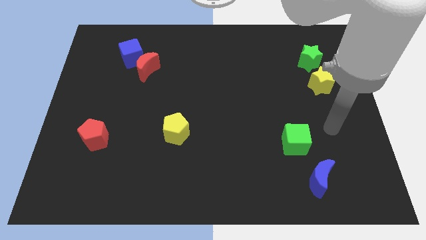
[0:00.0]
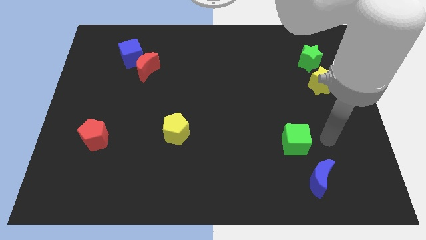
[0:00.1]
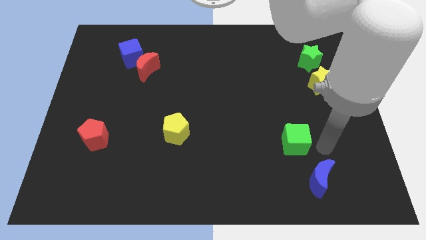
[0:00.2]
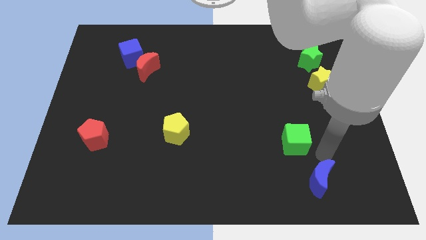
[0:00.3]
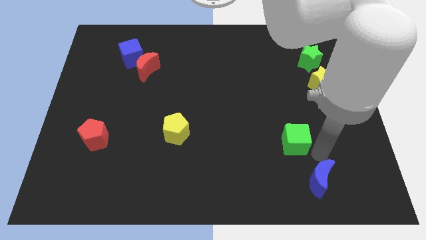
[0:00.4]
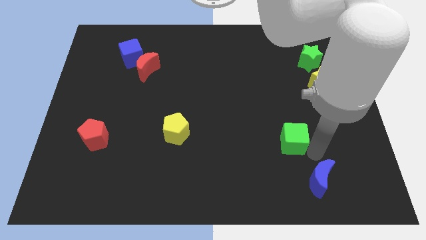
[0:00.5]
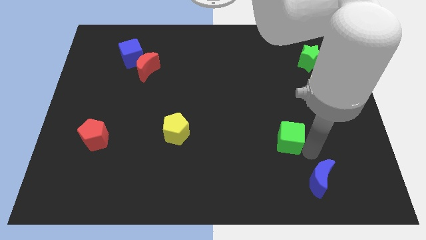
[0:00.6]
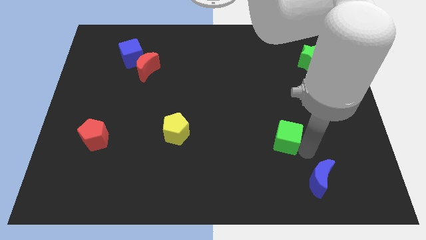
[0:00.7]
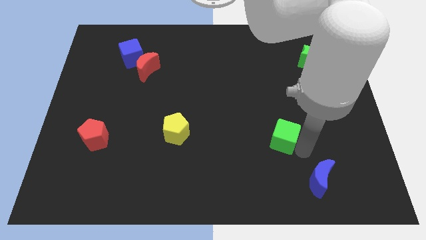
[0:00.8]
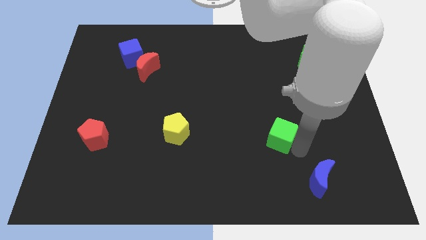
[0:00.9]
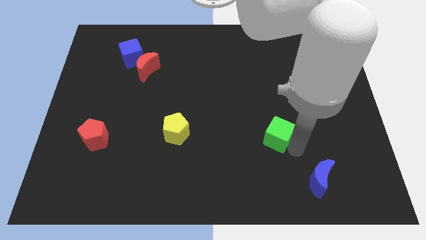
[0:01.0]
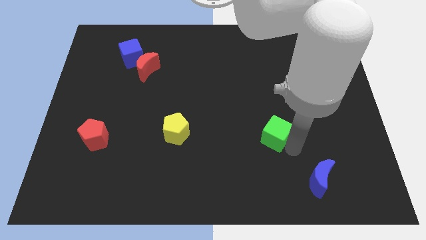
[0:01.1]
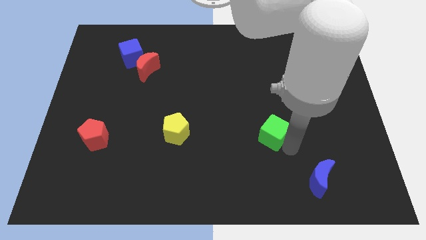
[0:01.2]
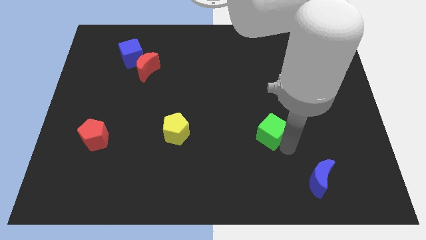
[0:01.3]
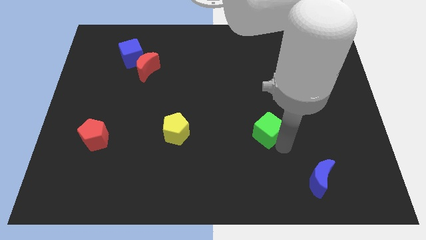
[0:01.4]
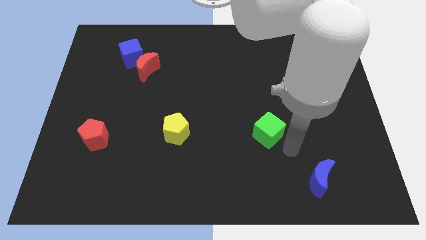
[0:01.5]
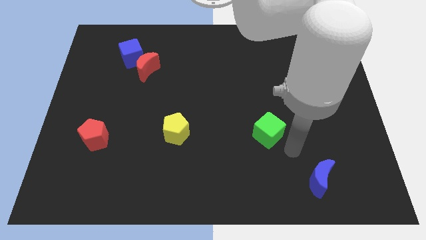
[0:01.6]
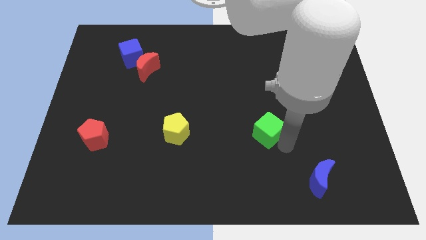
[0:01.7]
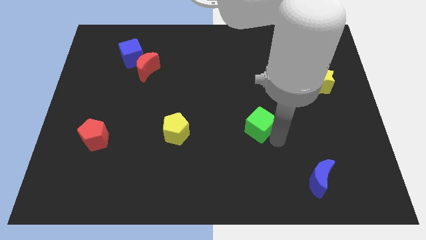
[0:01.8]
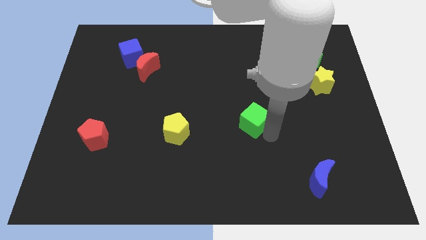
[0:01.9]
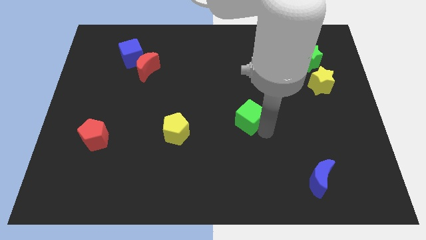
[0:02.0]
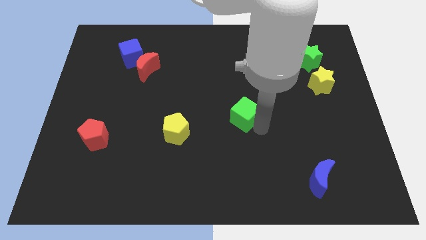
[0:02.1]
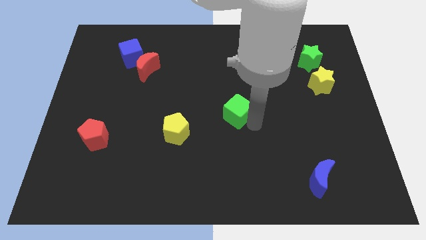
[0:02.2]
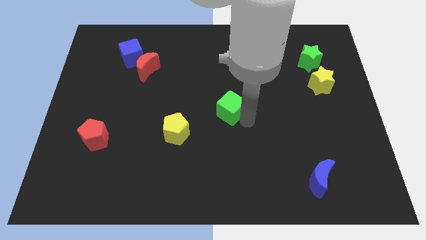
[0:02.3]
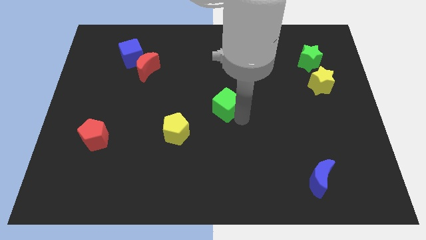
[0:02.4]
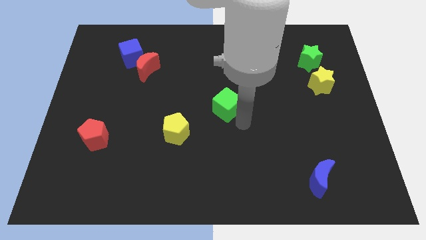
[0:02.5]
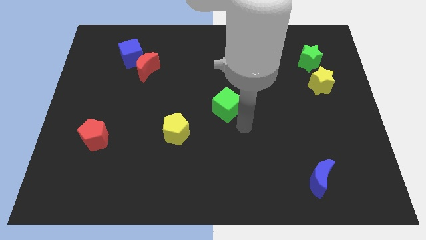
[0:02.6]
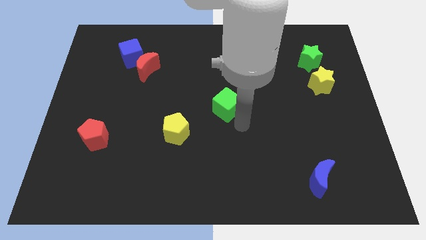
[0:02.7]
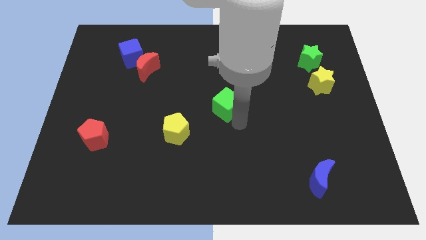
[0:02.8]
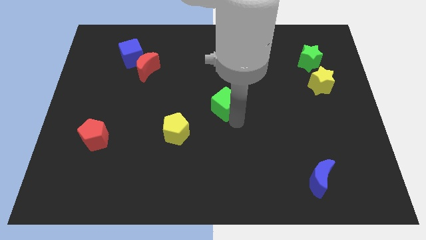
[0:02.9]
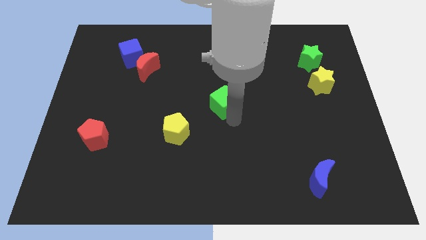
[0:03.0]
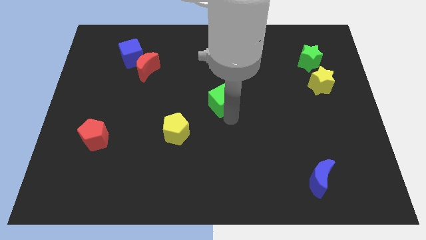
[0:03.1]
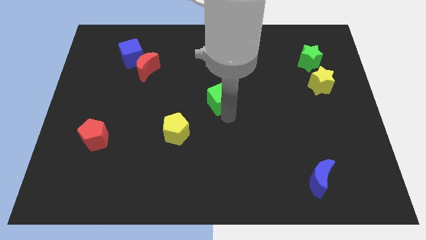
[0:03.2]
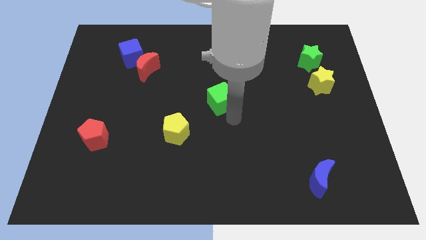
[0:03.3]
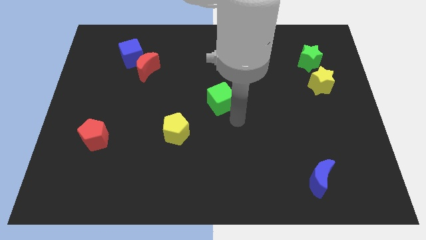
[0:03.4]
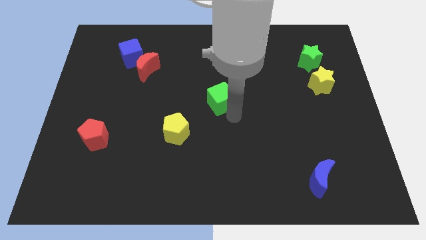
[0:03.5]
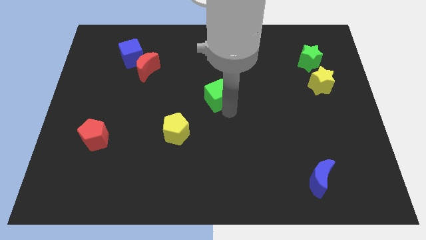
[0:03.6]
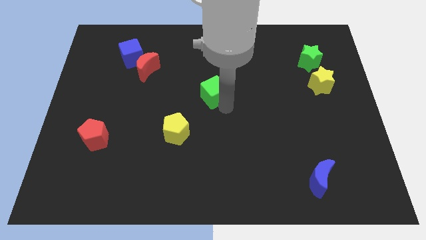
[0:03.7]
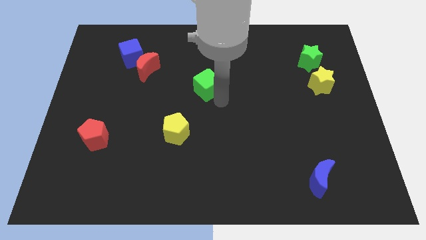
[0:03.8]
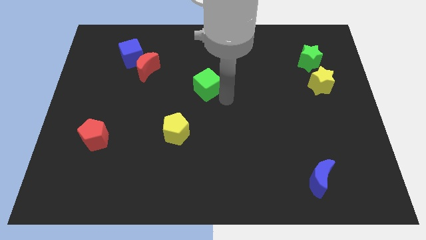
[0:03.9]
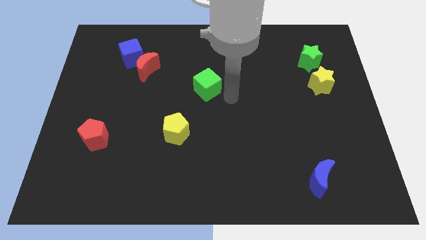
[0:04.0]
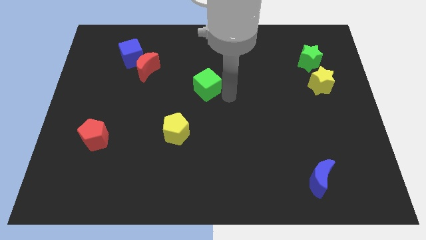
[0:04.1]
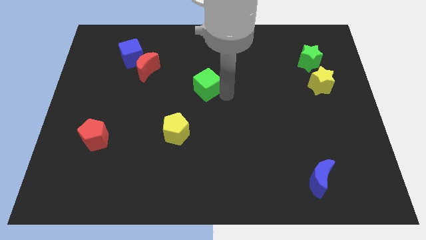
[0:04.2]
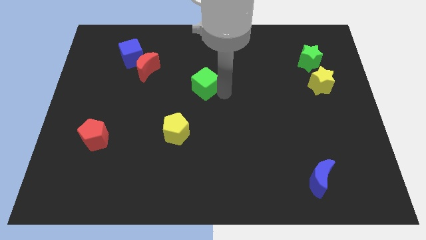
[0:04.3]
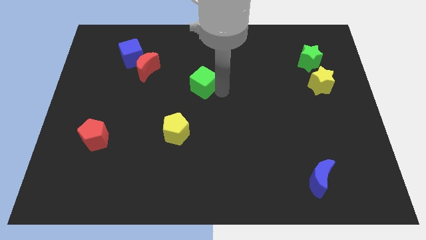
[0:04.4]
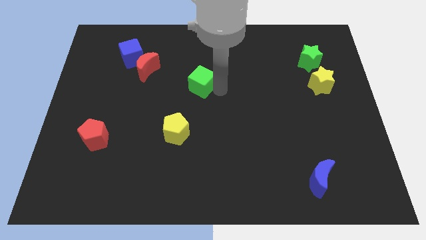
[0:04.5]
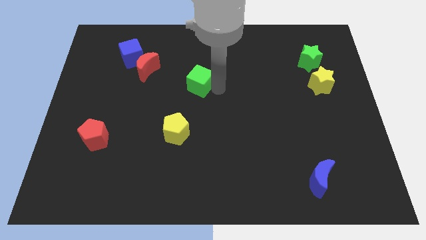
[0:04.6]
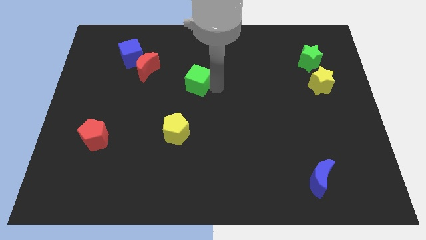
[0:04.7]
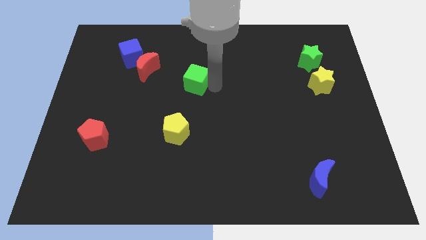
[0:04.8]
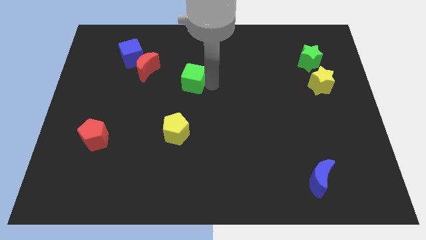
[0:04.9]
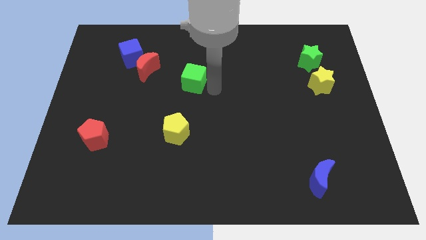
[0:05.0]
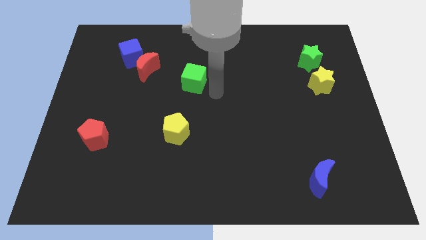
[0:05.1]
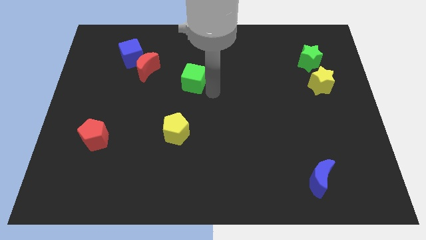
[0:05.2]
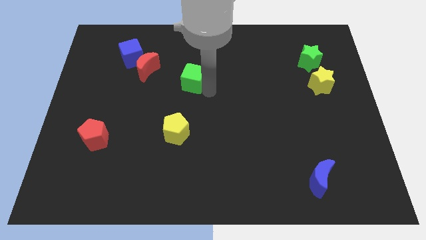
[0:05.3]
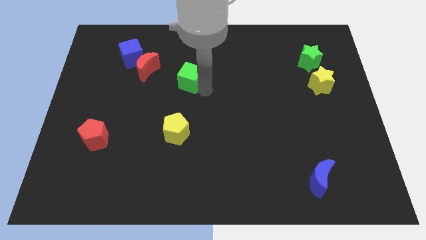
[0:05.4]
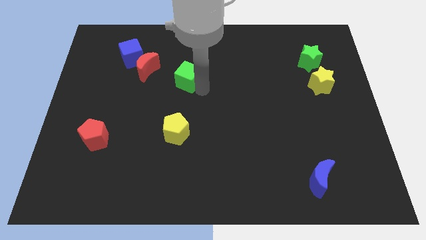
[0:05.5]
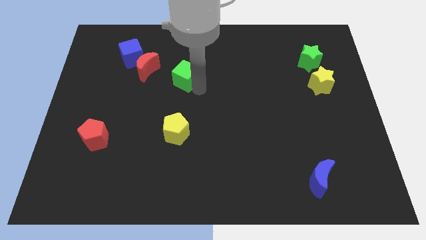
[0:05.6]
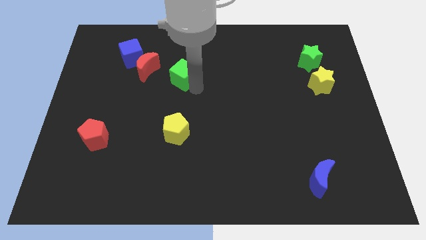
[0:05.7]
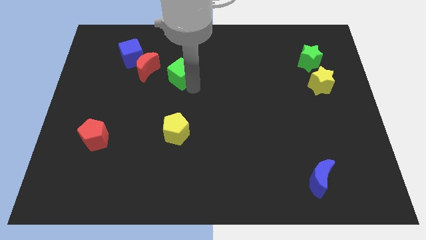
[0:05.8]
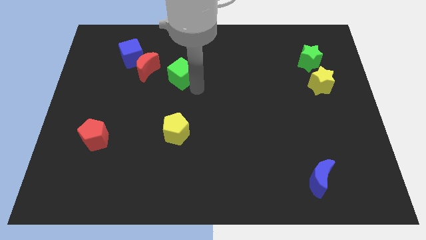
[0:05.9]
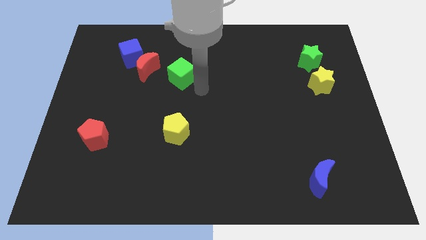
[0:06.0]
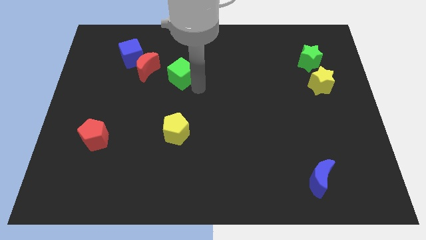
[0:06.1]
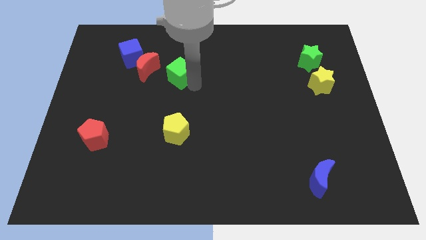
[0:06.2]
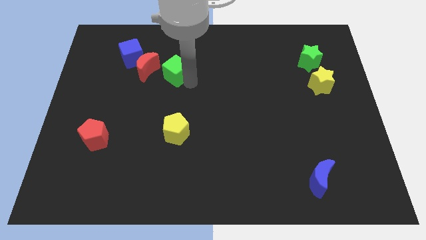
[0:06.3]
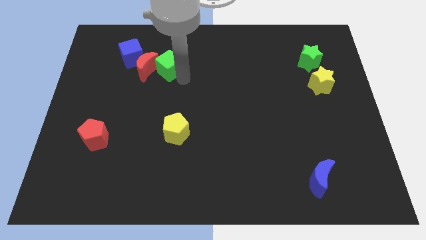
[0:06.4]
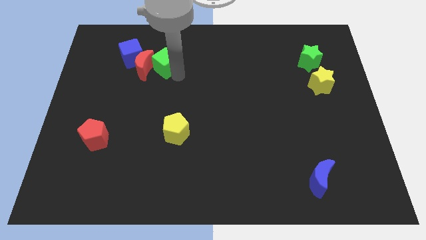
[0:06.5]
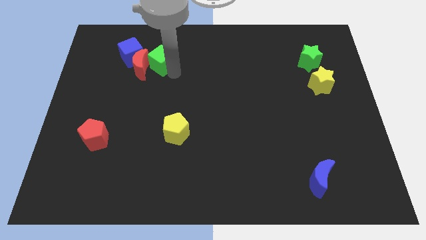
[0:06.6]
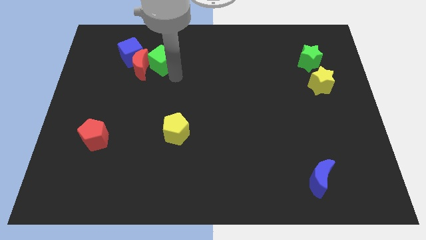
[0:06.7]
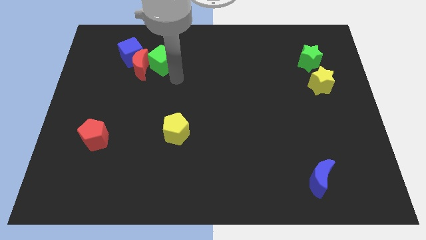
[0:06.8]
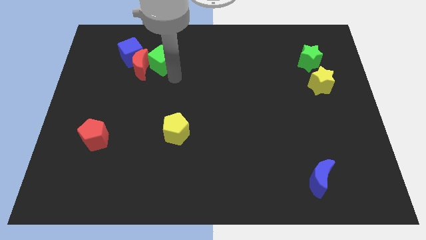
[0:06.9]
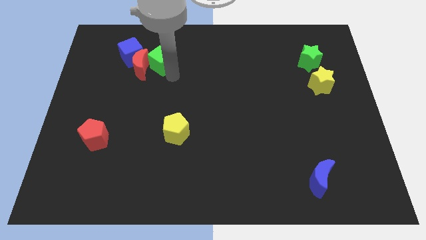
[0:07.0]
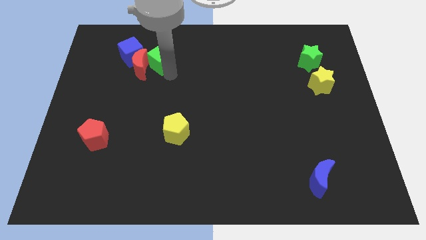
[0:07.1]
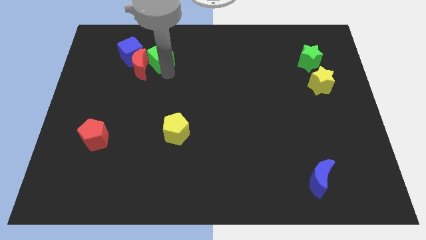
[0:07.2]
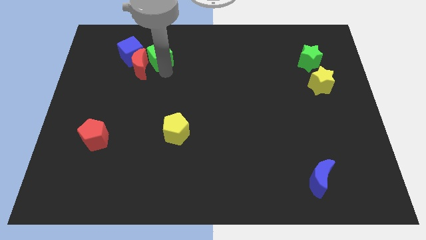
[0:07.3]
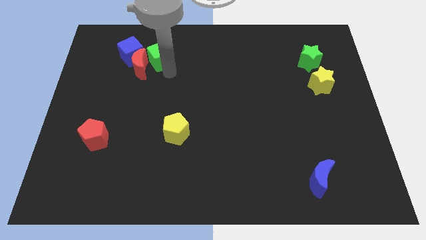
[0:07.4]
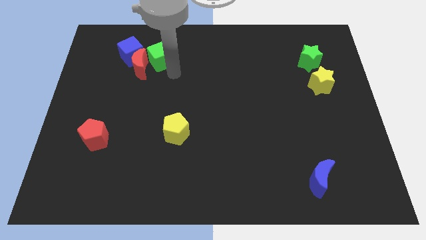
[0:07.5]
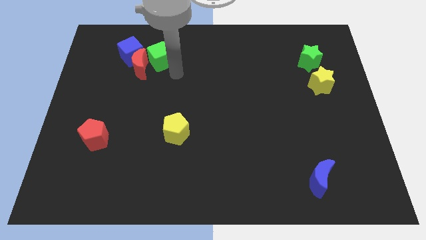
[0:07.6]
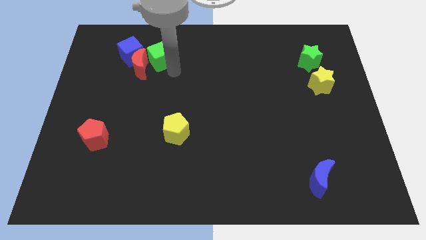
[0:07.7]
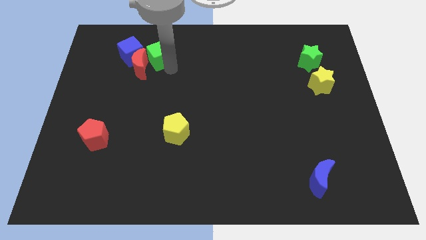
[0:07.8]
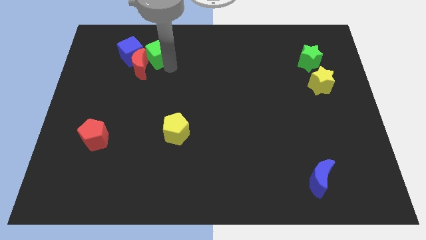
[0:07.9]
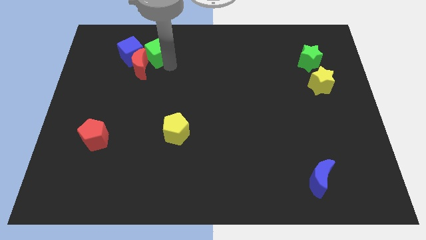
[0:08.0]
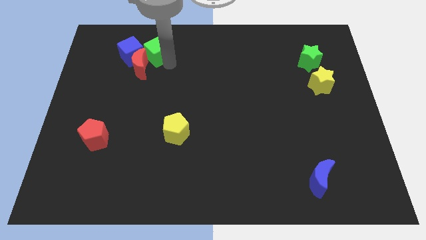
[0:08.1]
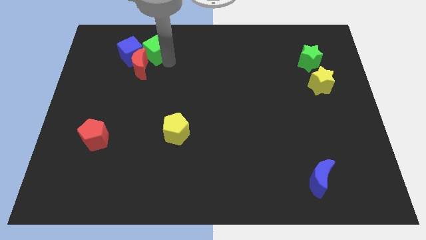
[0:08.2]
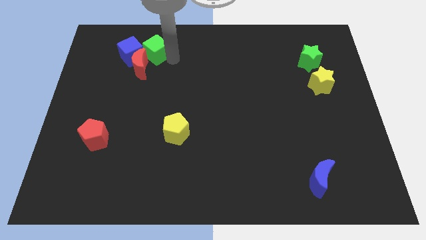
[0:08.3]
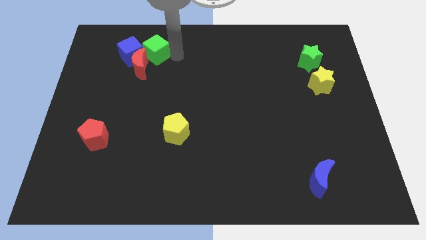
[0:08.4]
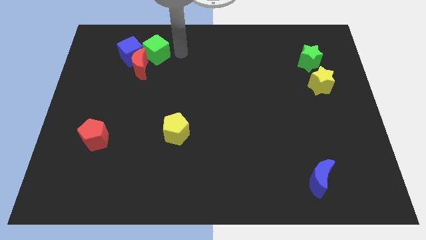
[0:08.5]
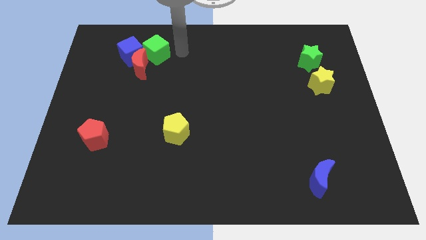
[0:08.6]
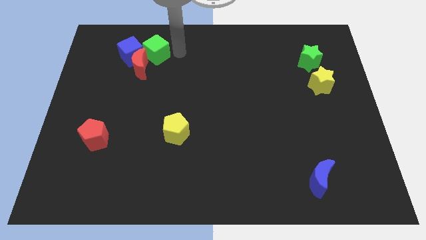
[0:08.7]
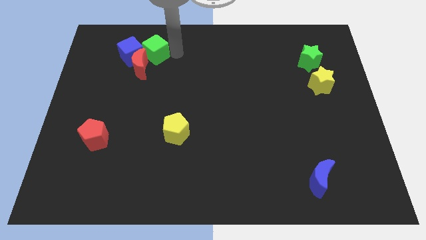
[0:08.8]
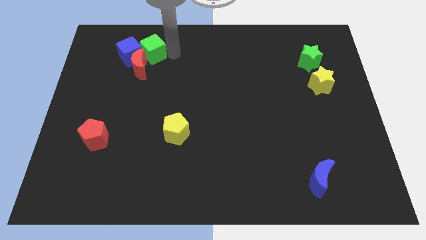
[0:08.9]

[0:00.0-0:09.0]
move the green cube to the blue cube
